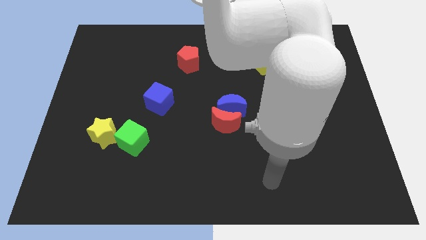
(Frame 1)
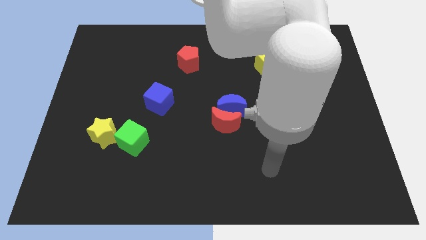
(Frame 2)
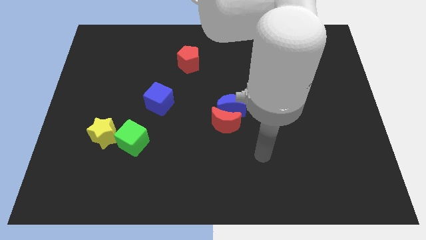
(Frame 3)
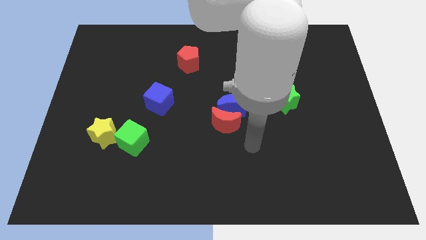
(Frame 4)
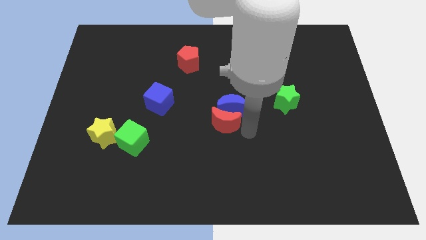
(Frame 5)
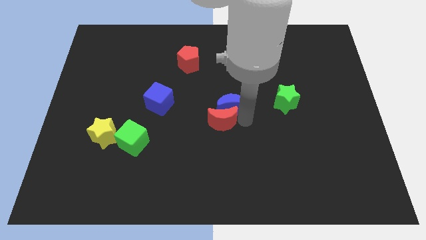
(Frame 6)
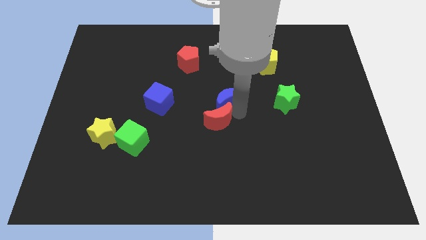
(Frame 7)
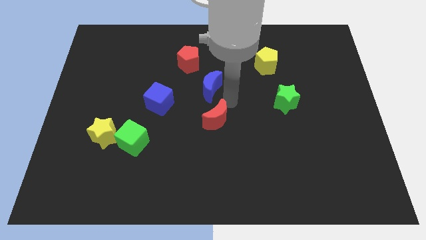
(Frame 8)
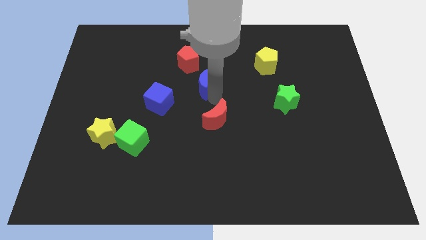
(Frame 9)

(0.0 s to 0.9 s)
move the red moon away from the blue moon

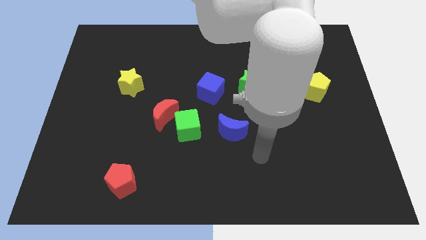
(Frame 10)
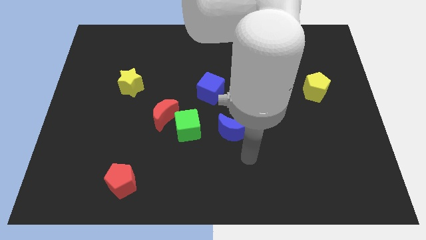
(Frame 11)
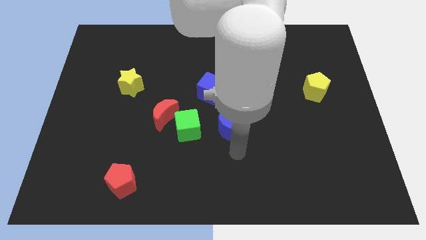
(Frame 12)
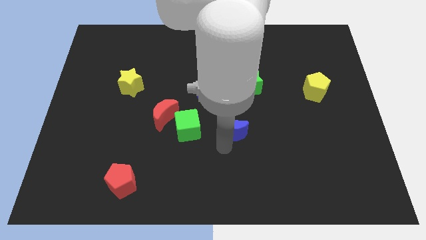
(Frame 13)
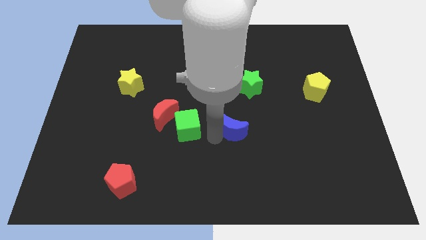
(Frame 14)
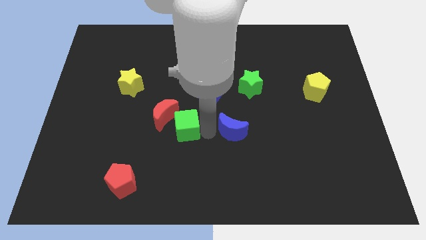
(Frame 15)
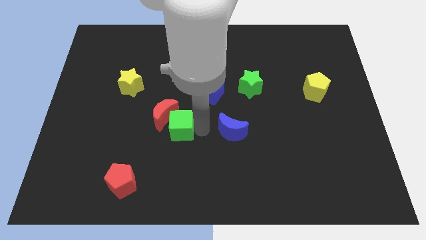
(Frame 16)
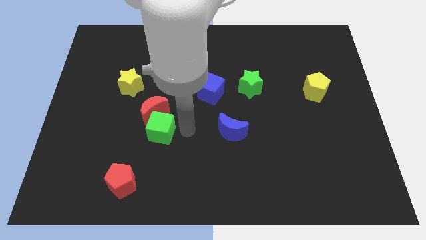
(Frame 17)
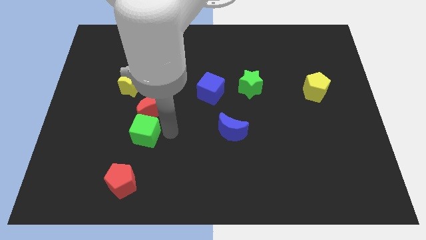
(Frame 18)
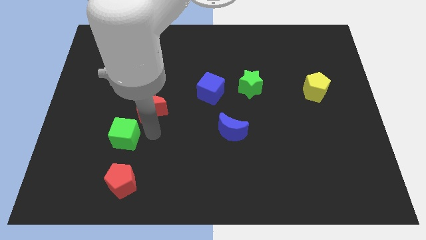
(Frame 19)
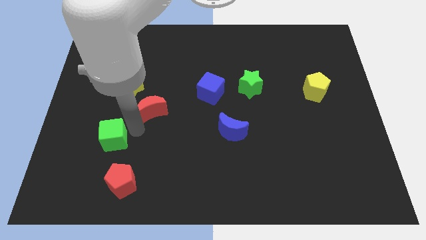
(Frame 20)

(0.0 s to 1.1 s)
pull the red moon apart from the green cube

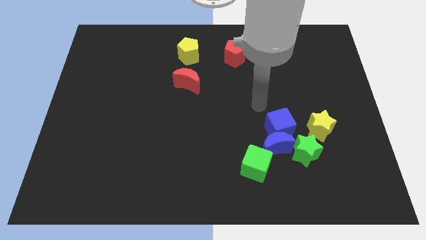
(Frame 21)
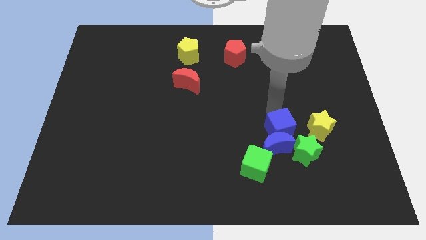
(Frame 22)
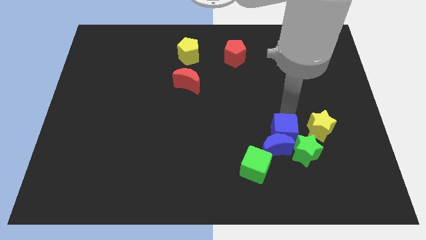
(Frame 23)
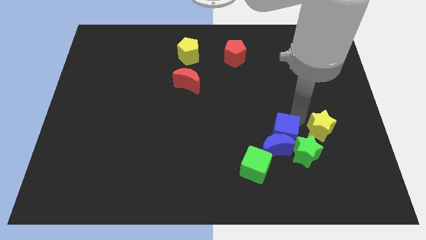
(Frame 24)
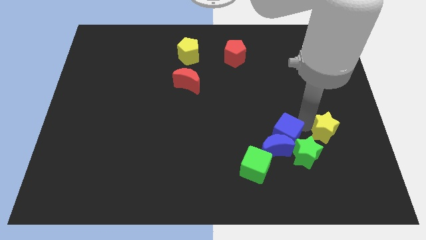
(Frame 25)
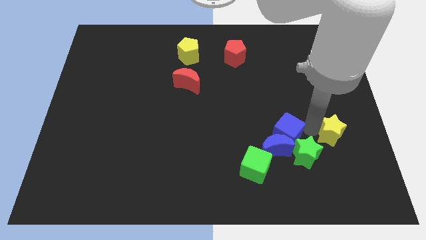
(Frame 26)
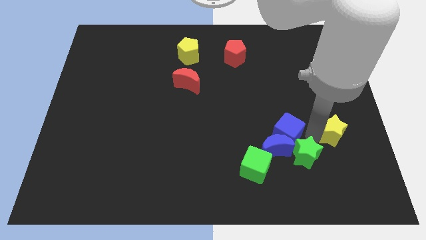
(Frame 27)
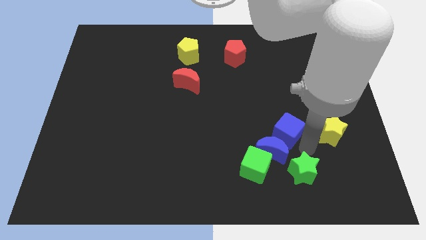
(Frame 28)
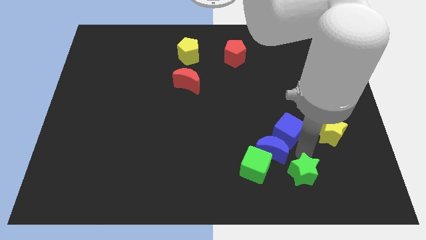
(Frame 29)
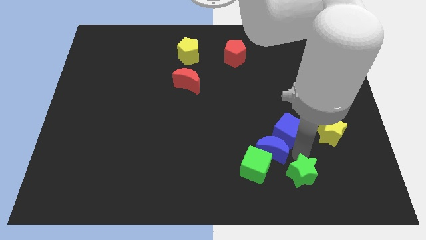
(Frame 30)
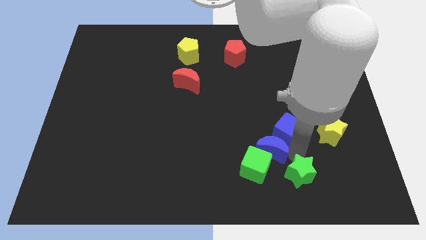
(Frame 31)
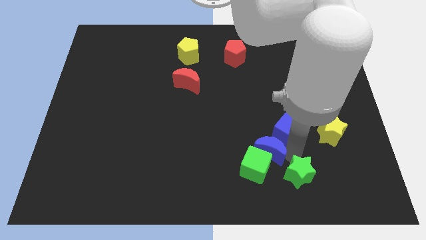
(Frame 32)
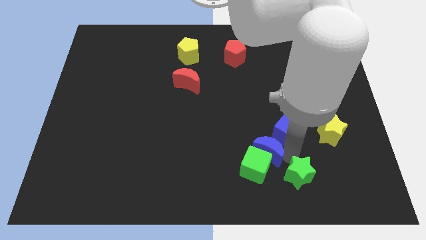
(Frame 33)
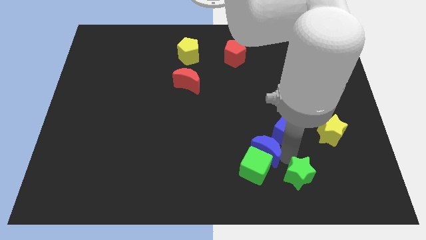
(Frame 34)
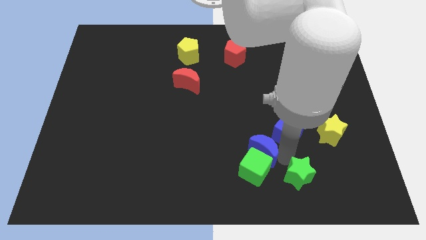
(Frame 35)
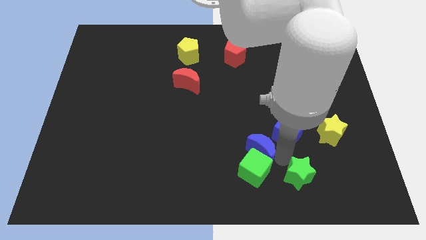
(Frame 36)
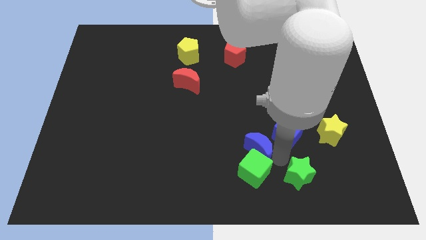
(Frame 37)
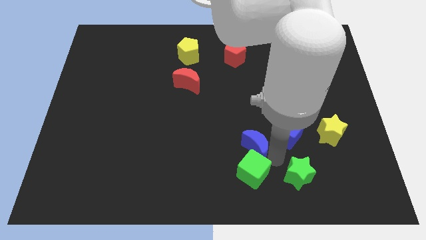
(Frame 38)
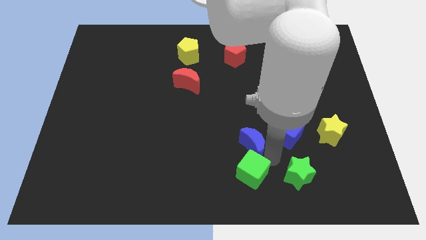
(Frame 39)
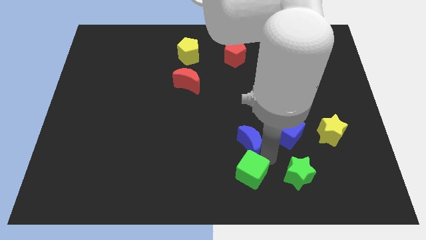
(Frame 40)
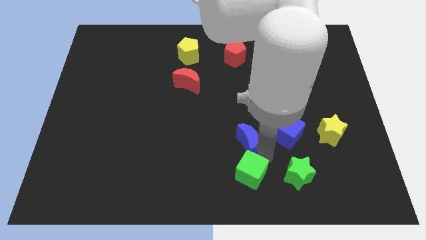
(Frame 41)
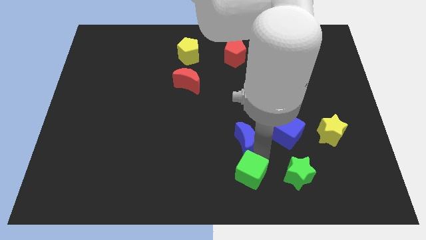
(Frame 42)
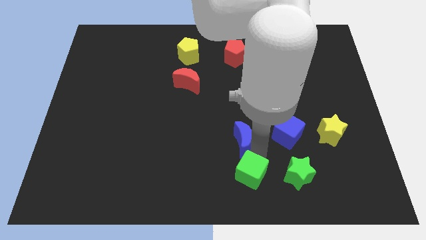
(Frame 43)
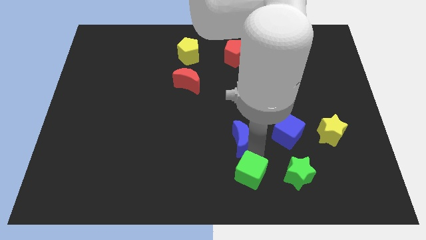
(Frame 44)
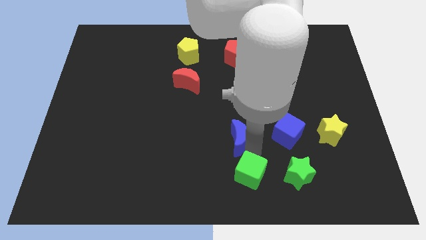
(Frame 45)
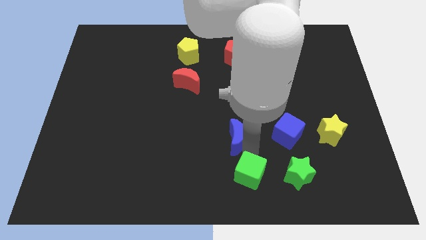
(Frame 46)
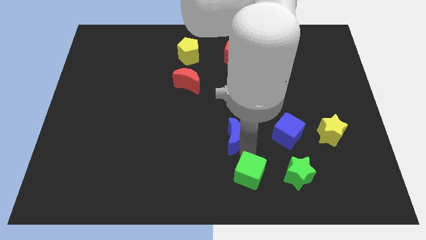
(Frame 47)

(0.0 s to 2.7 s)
move the blue moon away from the group

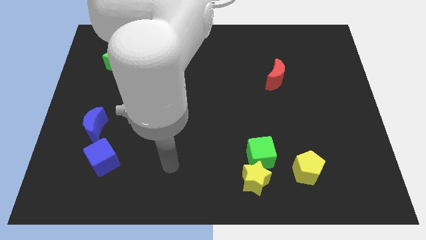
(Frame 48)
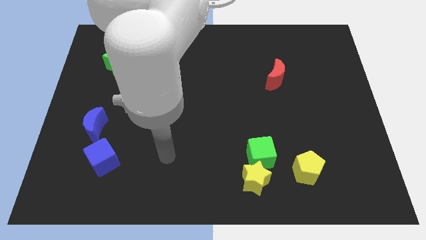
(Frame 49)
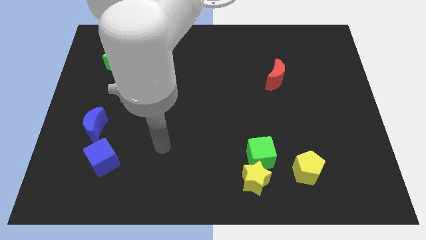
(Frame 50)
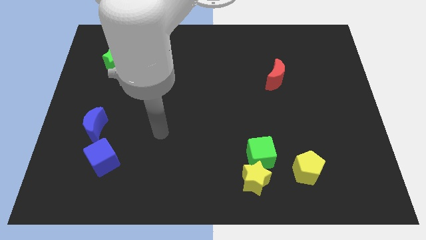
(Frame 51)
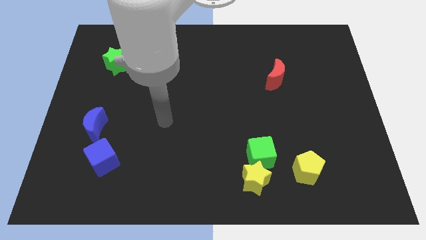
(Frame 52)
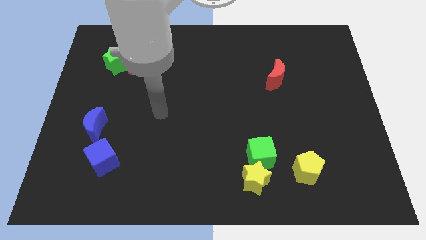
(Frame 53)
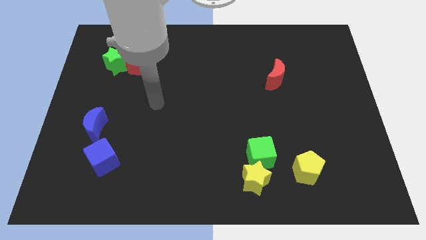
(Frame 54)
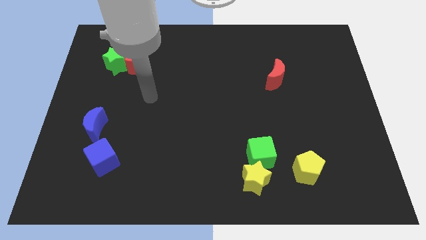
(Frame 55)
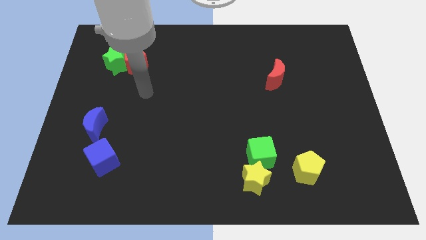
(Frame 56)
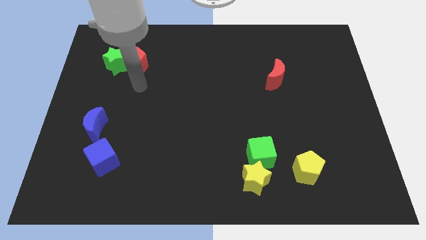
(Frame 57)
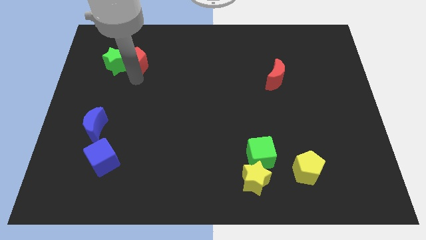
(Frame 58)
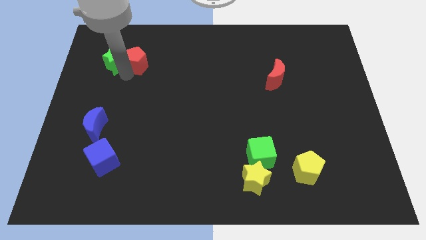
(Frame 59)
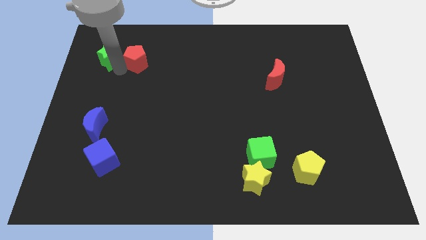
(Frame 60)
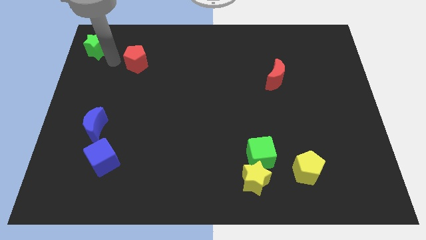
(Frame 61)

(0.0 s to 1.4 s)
separate the red pentagon from the green star

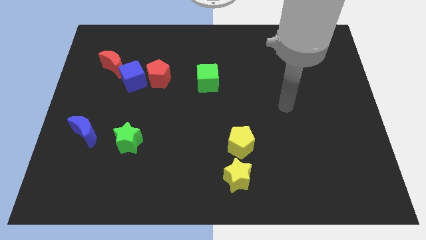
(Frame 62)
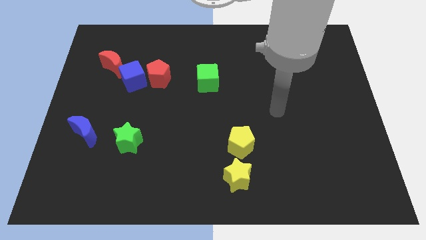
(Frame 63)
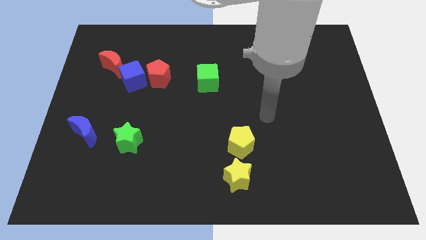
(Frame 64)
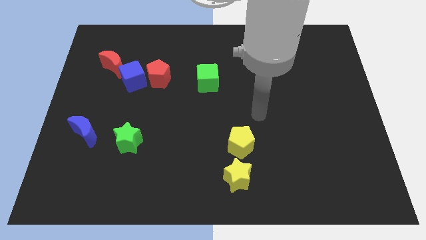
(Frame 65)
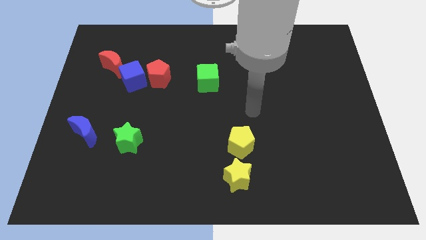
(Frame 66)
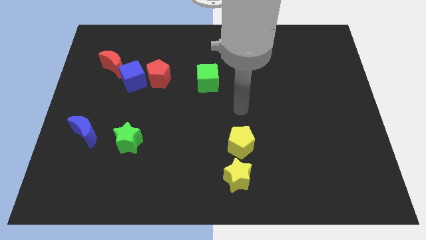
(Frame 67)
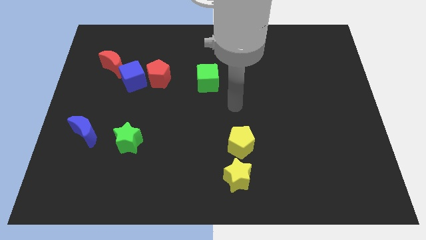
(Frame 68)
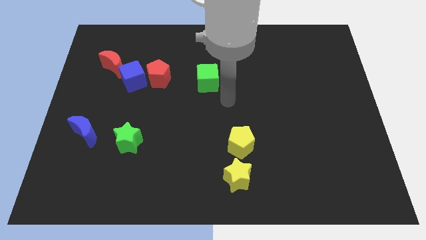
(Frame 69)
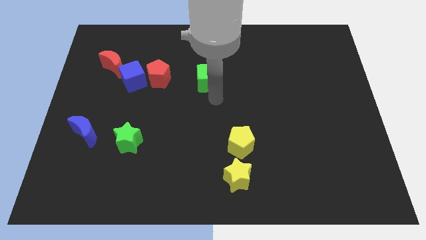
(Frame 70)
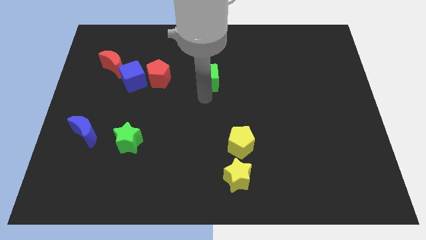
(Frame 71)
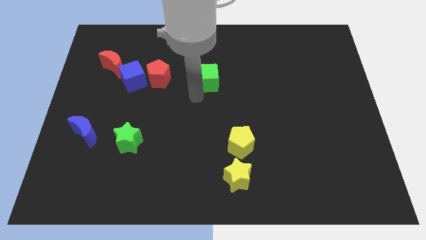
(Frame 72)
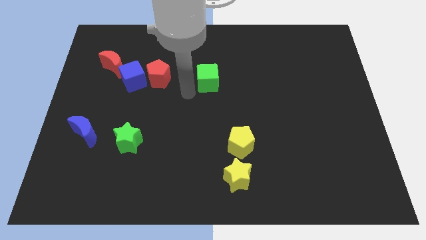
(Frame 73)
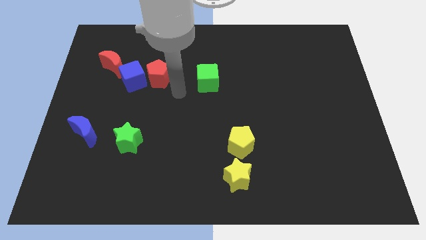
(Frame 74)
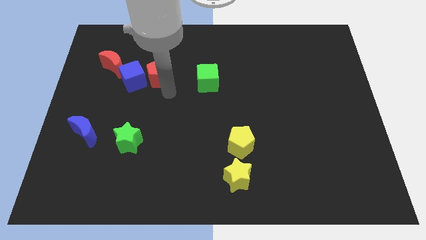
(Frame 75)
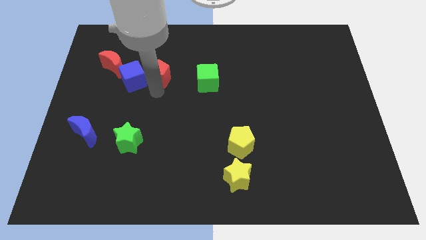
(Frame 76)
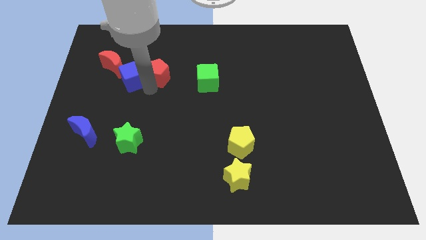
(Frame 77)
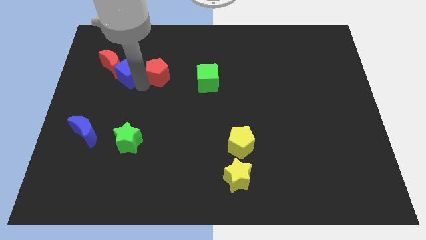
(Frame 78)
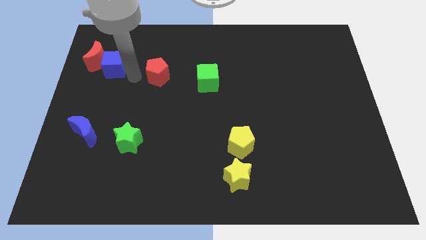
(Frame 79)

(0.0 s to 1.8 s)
move the red pentagon away from the blue cube

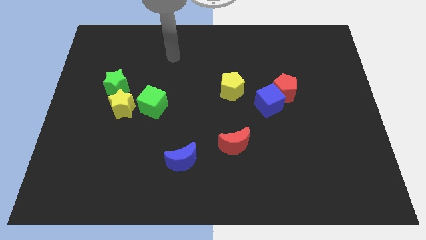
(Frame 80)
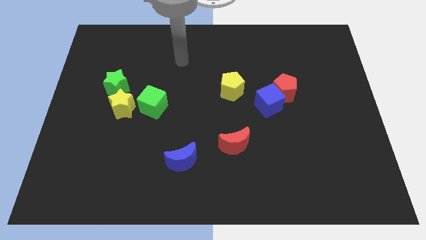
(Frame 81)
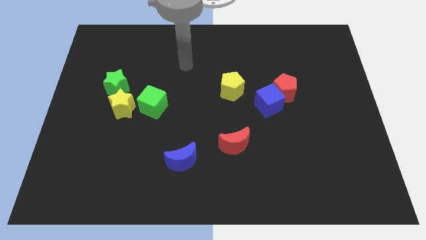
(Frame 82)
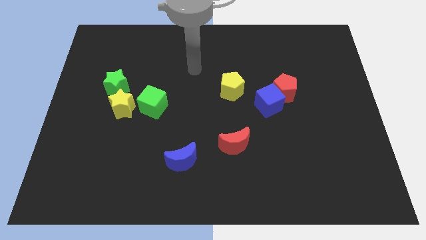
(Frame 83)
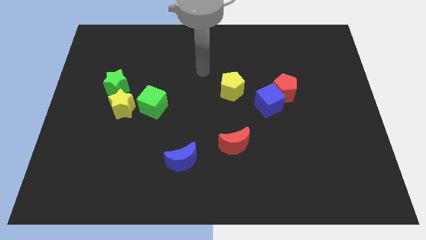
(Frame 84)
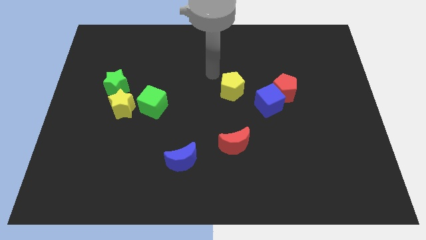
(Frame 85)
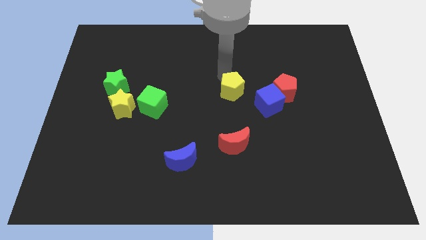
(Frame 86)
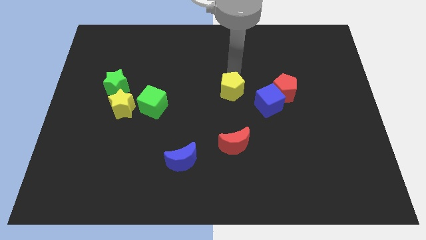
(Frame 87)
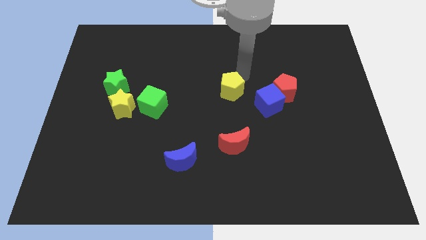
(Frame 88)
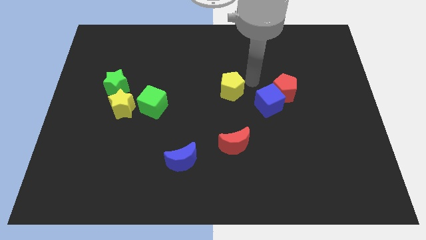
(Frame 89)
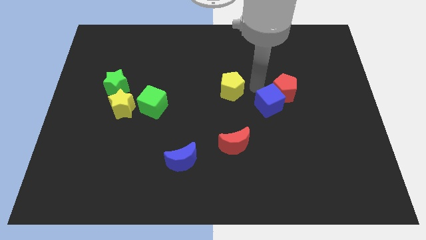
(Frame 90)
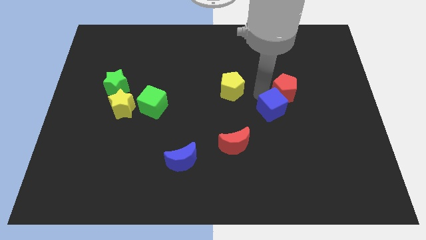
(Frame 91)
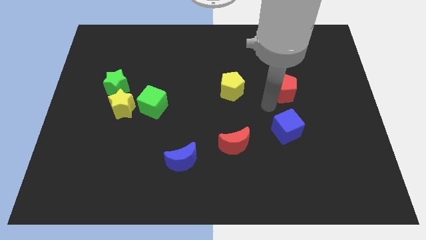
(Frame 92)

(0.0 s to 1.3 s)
pull the red pentagon apart from the blue cube
